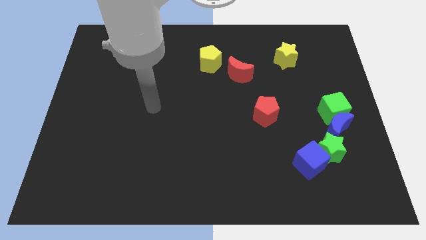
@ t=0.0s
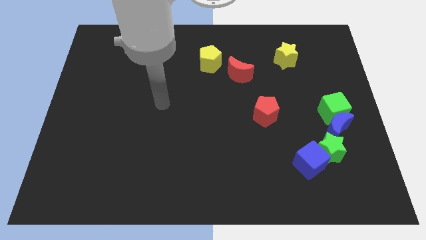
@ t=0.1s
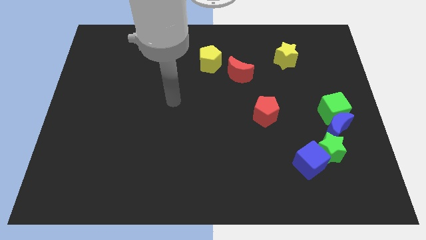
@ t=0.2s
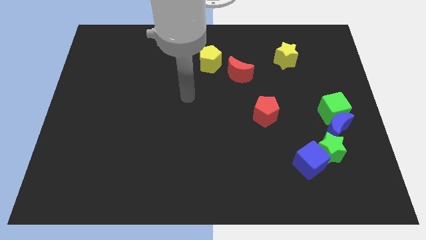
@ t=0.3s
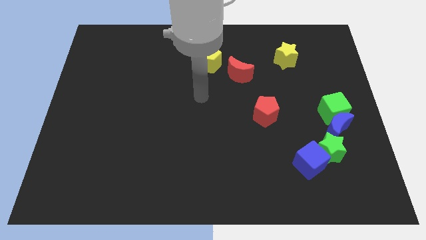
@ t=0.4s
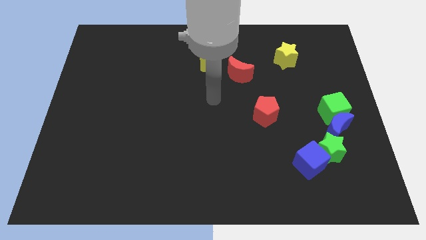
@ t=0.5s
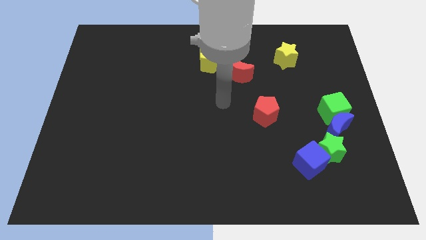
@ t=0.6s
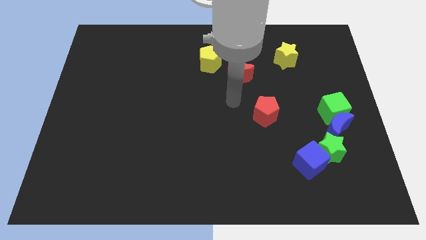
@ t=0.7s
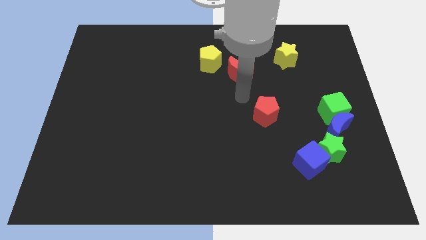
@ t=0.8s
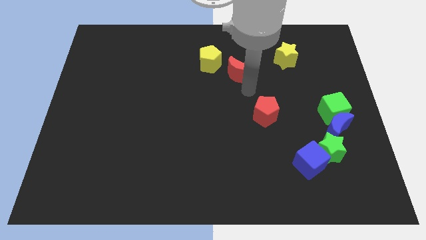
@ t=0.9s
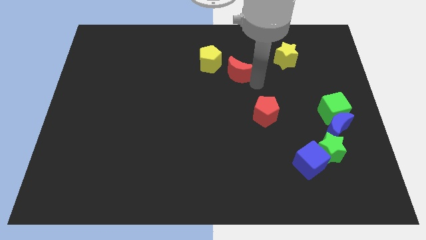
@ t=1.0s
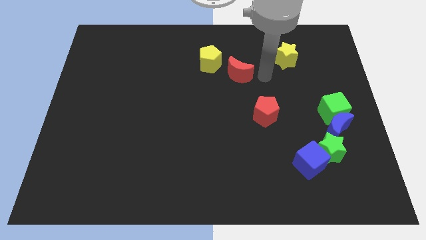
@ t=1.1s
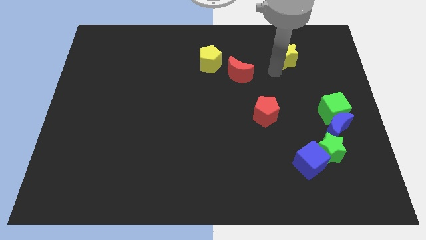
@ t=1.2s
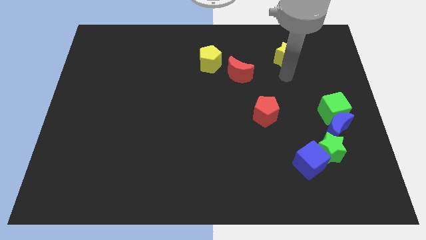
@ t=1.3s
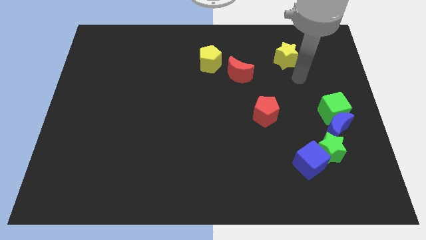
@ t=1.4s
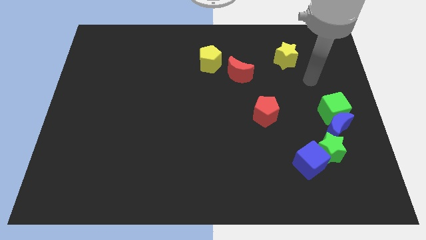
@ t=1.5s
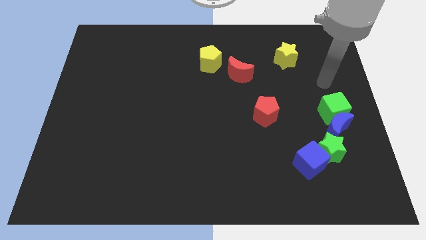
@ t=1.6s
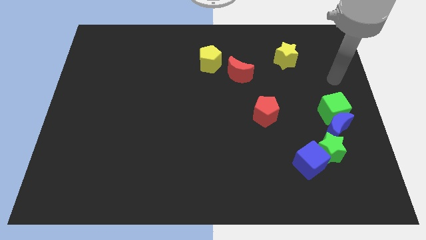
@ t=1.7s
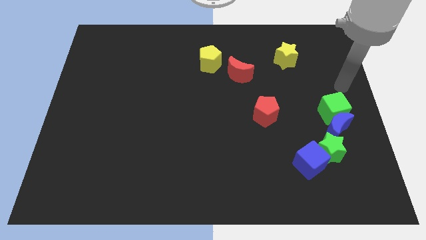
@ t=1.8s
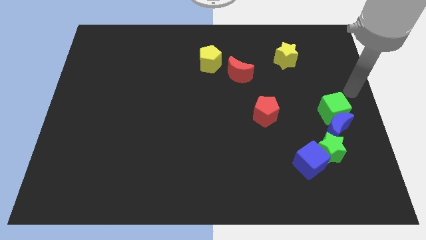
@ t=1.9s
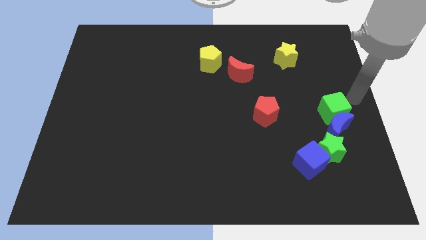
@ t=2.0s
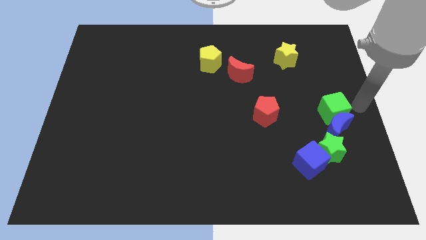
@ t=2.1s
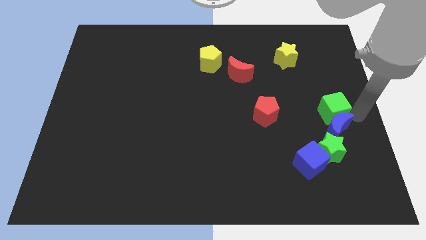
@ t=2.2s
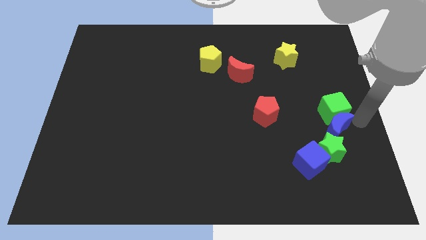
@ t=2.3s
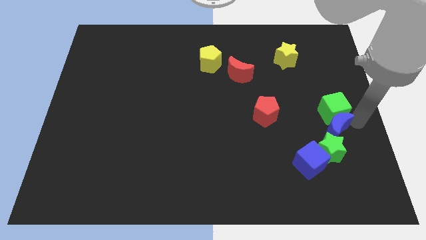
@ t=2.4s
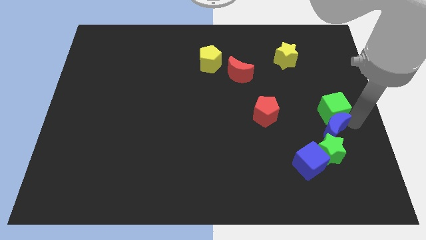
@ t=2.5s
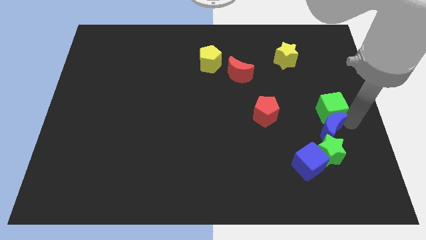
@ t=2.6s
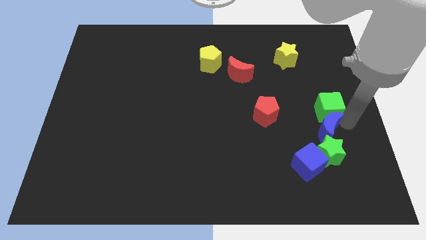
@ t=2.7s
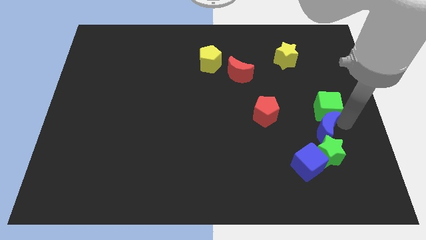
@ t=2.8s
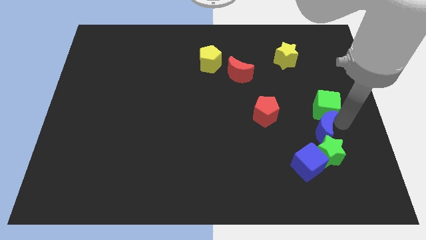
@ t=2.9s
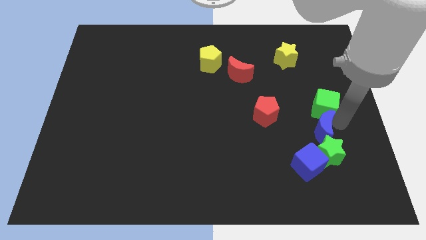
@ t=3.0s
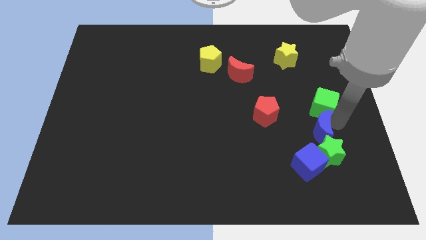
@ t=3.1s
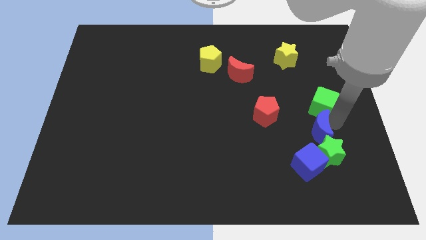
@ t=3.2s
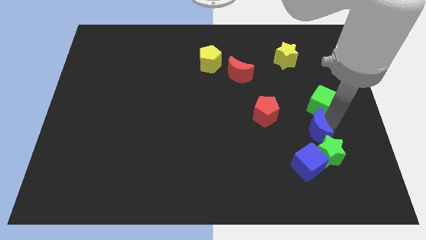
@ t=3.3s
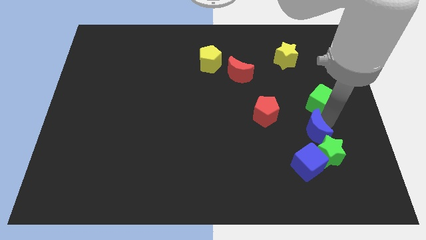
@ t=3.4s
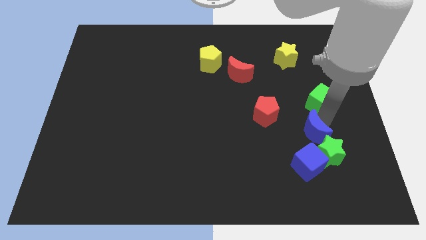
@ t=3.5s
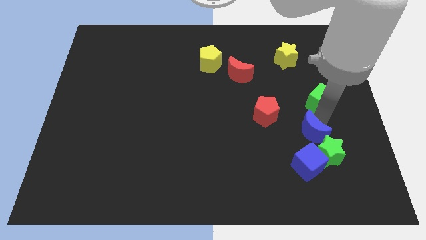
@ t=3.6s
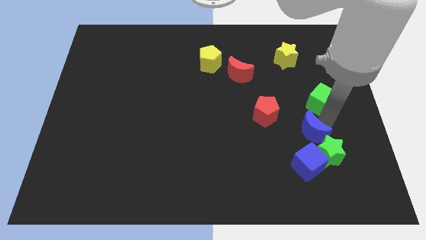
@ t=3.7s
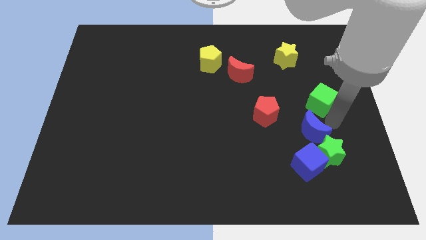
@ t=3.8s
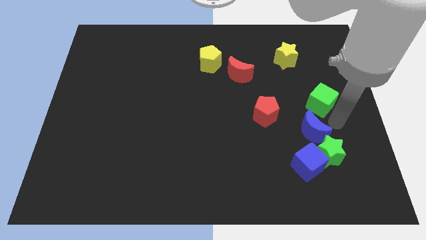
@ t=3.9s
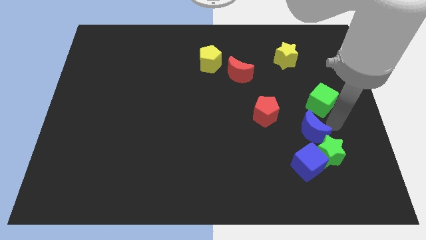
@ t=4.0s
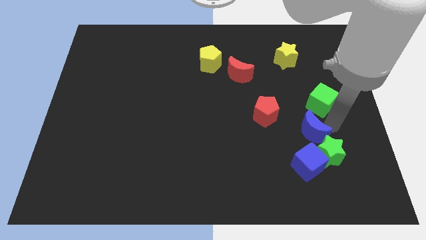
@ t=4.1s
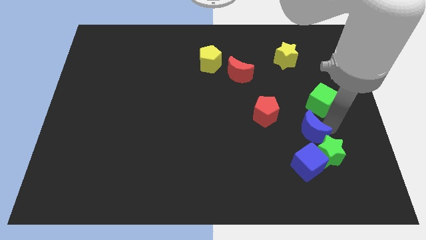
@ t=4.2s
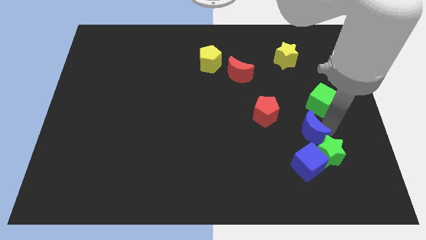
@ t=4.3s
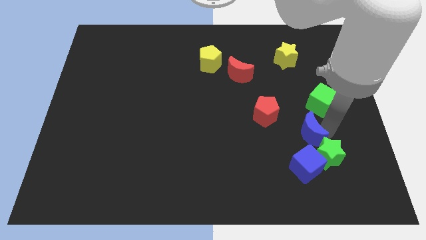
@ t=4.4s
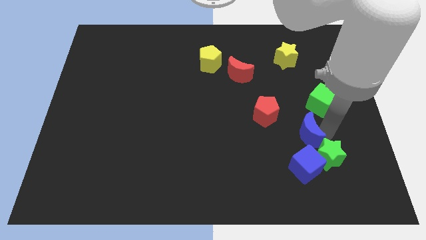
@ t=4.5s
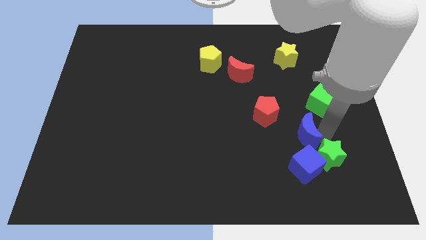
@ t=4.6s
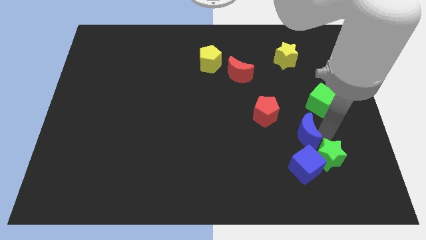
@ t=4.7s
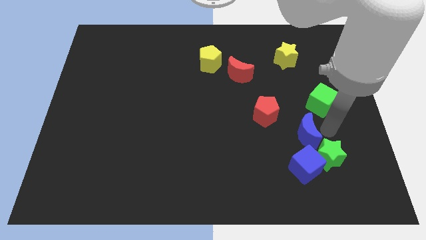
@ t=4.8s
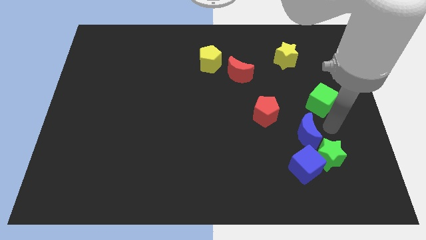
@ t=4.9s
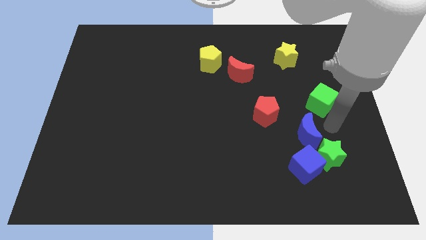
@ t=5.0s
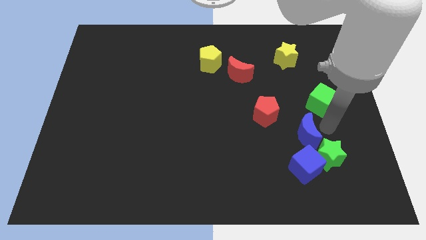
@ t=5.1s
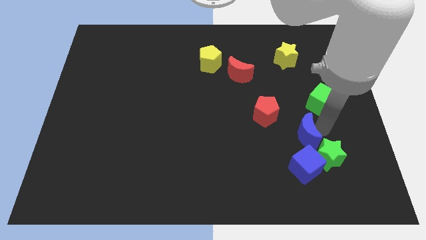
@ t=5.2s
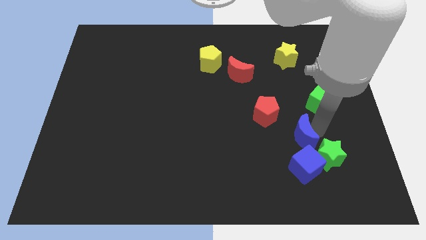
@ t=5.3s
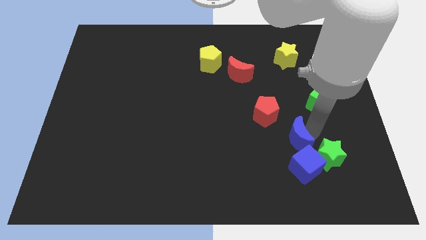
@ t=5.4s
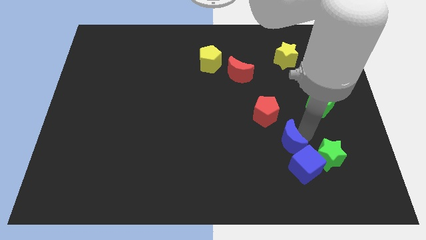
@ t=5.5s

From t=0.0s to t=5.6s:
slide the blue moon to the bottom side of the red pentagon
